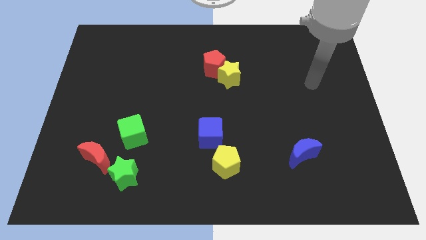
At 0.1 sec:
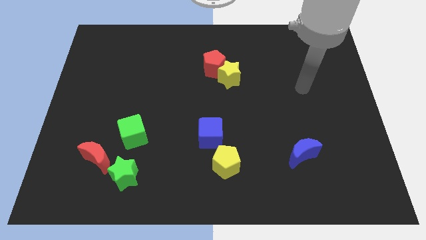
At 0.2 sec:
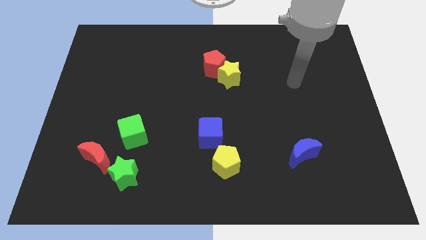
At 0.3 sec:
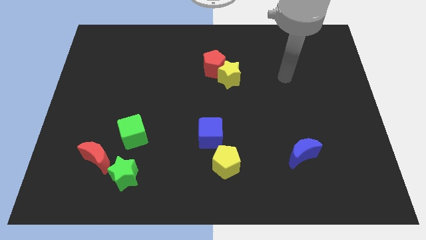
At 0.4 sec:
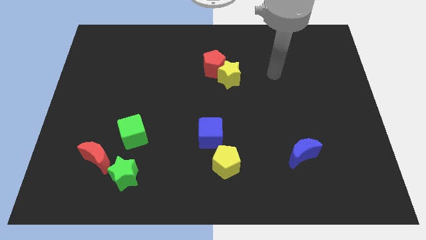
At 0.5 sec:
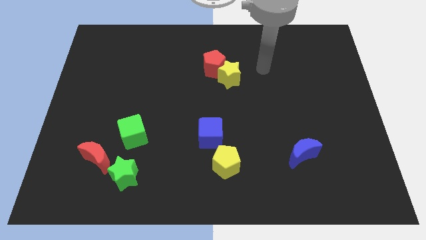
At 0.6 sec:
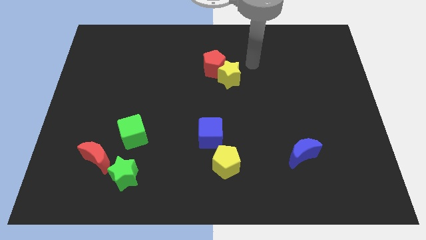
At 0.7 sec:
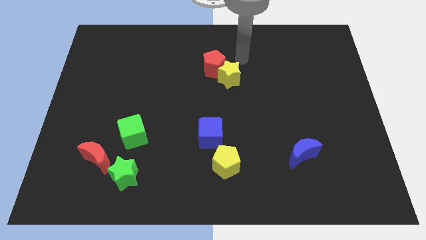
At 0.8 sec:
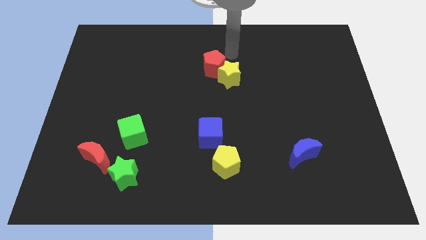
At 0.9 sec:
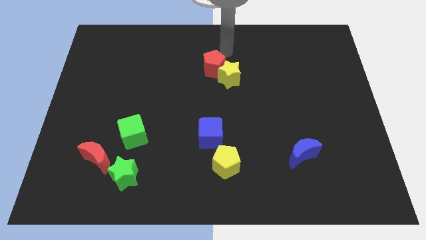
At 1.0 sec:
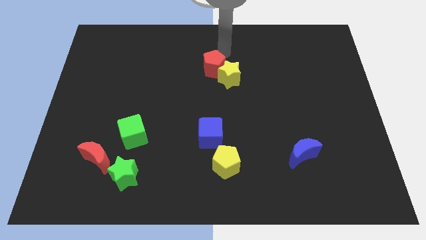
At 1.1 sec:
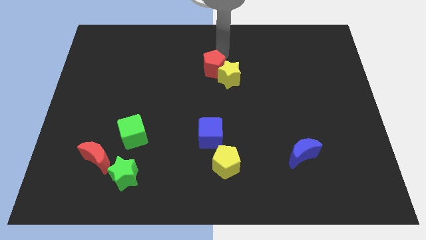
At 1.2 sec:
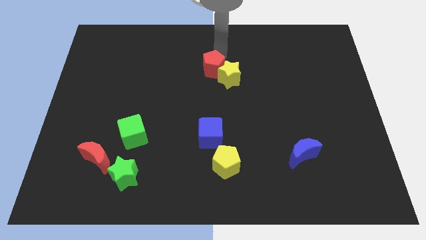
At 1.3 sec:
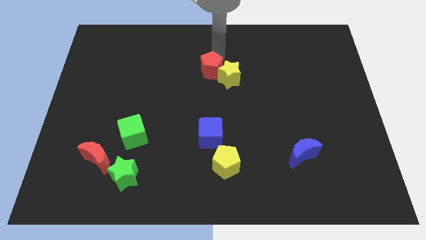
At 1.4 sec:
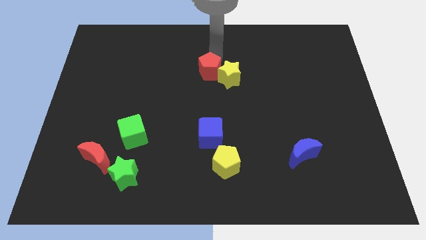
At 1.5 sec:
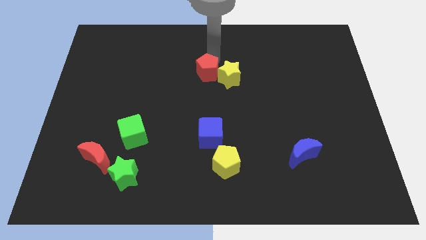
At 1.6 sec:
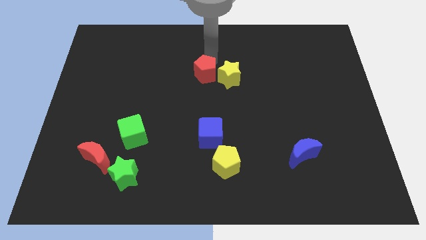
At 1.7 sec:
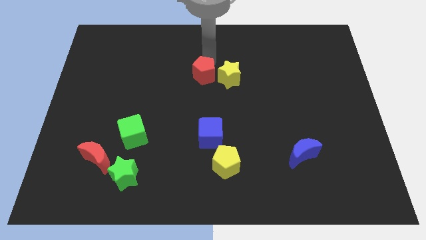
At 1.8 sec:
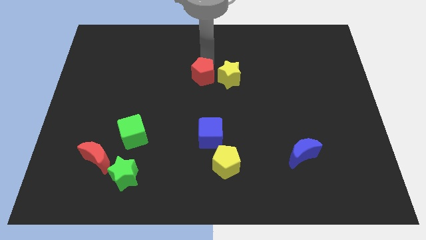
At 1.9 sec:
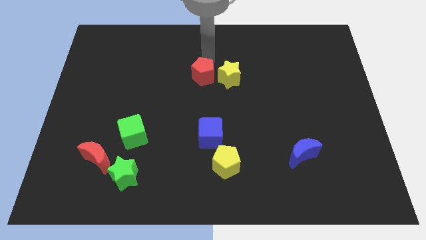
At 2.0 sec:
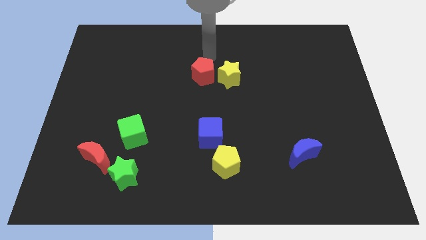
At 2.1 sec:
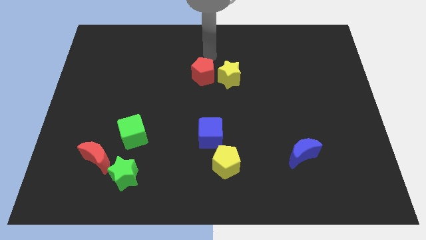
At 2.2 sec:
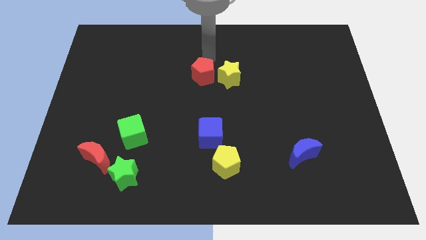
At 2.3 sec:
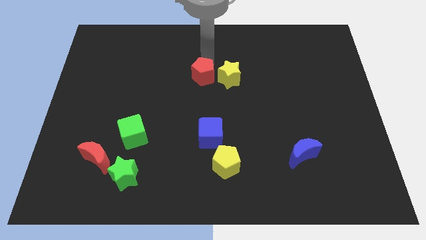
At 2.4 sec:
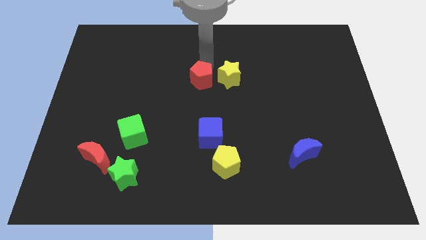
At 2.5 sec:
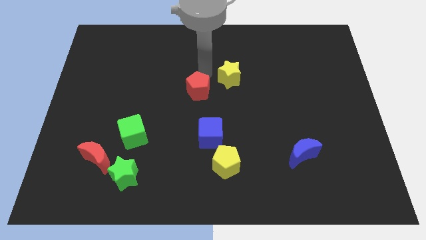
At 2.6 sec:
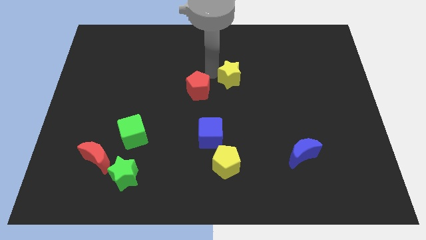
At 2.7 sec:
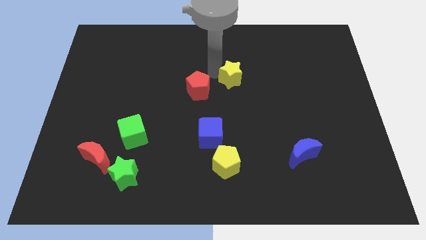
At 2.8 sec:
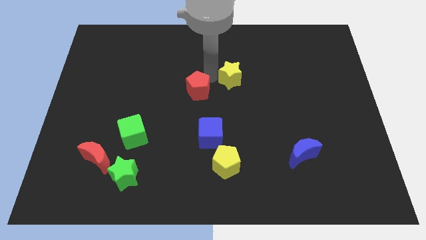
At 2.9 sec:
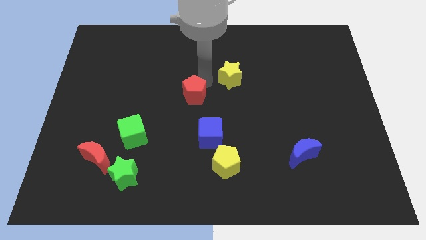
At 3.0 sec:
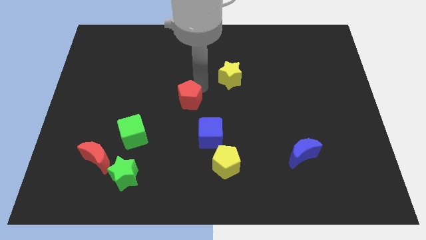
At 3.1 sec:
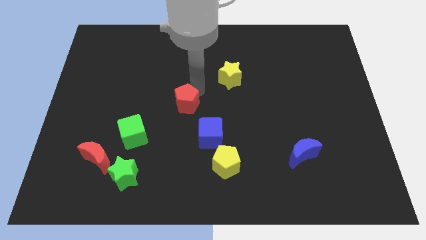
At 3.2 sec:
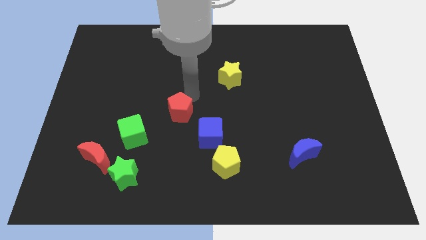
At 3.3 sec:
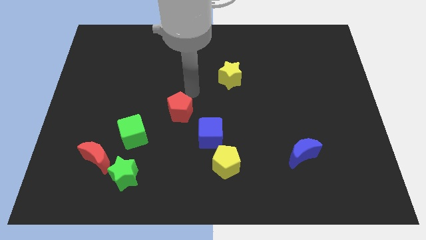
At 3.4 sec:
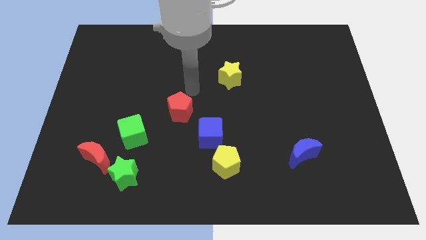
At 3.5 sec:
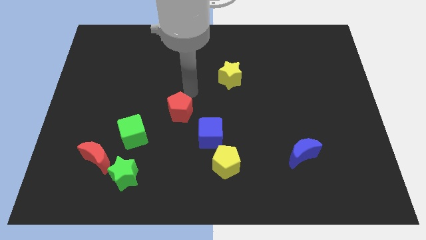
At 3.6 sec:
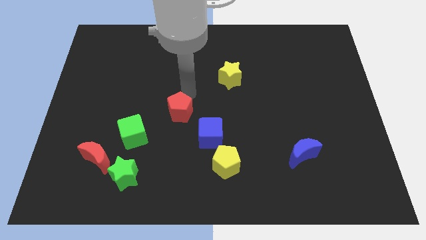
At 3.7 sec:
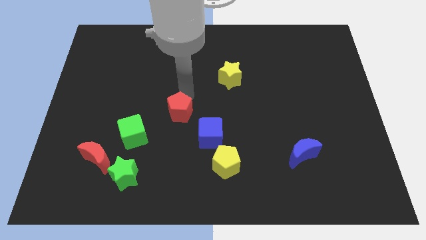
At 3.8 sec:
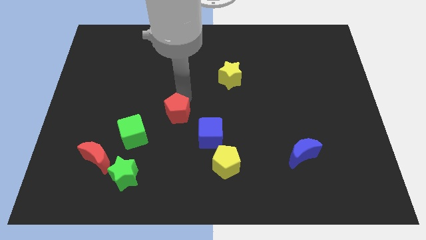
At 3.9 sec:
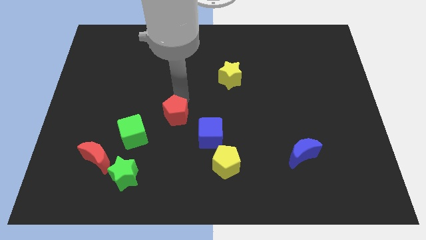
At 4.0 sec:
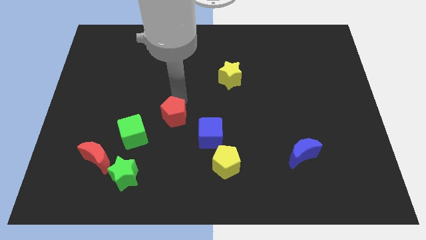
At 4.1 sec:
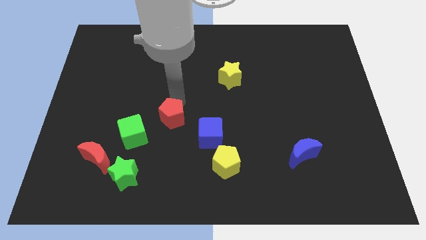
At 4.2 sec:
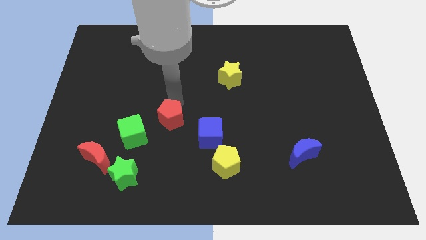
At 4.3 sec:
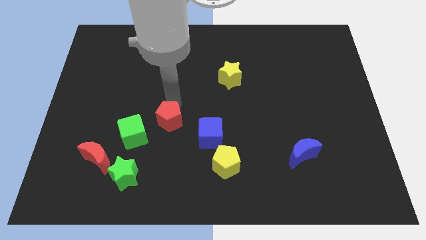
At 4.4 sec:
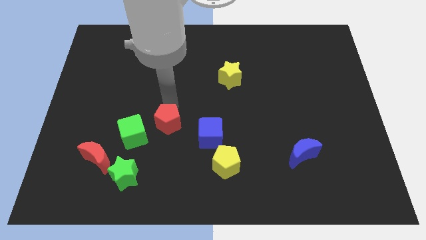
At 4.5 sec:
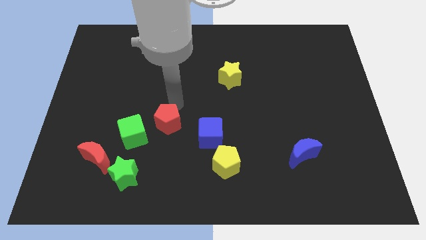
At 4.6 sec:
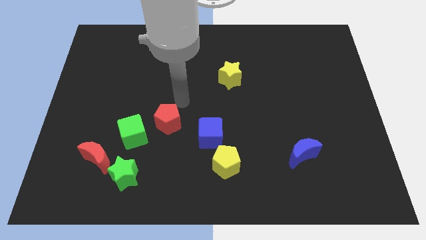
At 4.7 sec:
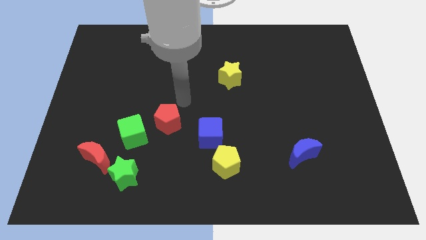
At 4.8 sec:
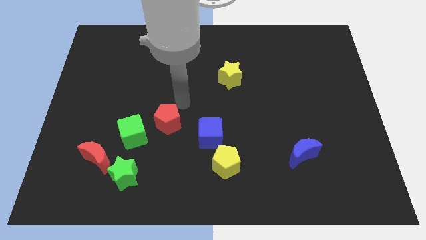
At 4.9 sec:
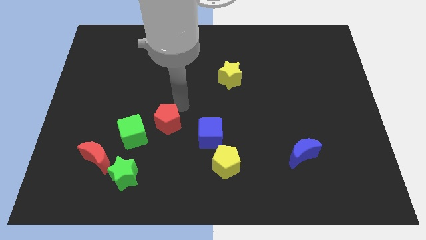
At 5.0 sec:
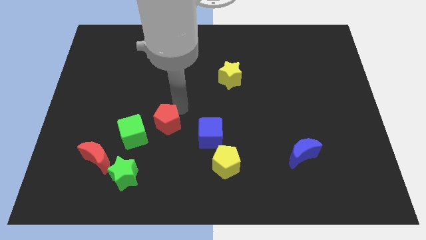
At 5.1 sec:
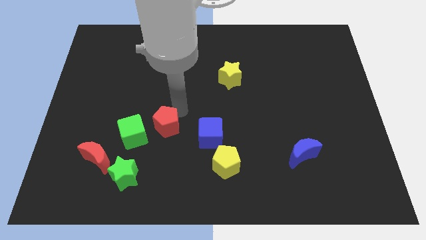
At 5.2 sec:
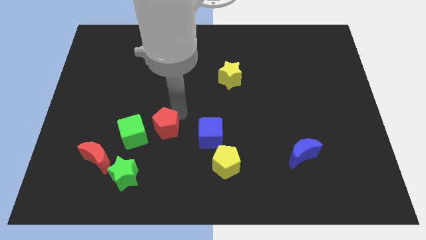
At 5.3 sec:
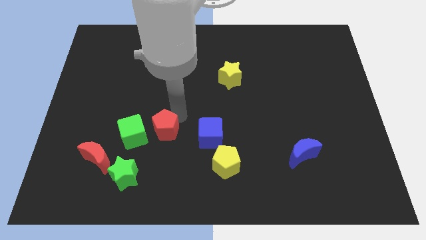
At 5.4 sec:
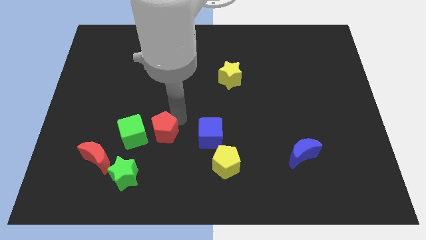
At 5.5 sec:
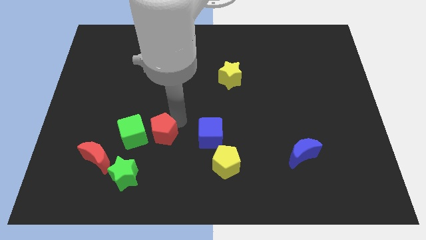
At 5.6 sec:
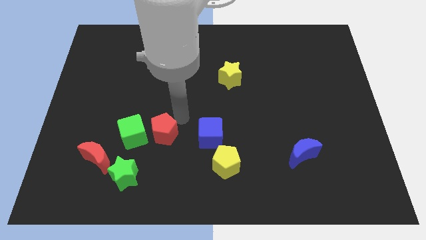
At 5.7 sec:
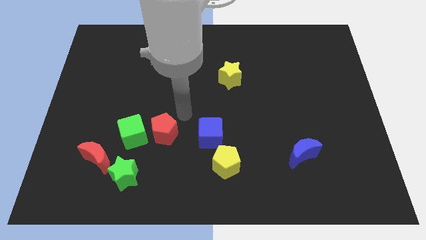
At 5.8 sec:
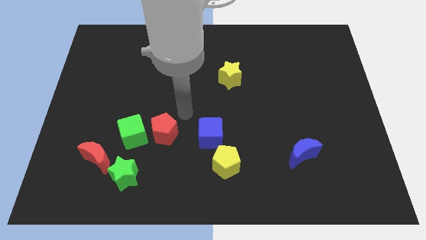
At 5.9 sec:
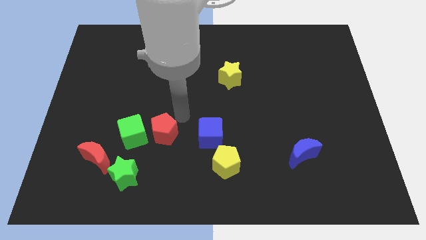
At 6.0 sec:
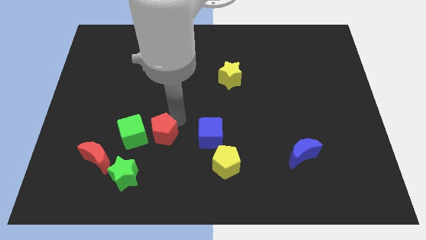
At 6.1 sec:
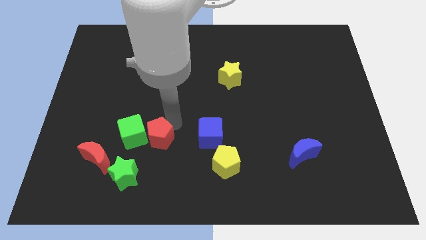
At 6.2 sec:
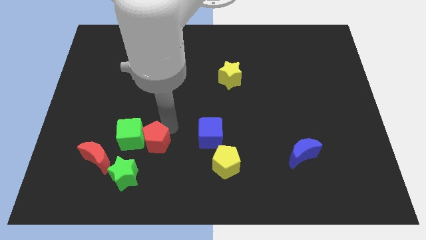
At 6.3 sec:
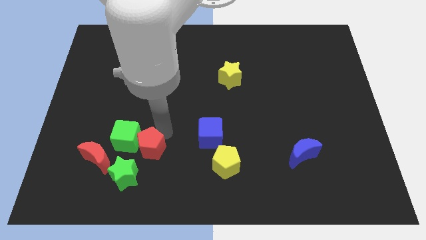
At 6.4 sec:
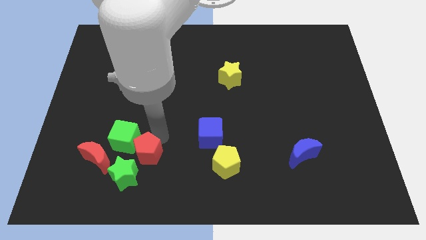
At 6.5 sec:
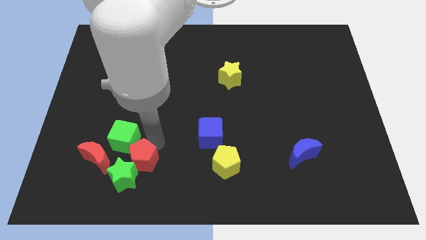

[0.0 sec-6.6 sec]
slide the red pentagon next to the green star
